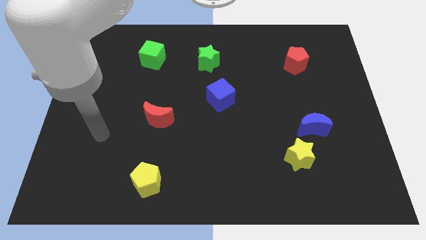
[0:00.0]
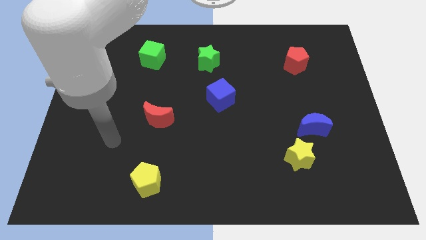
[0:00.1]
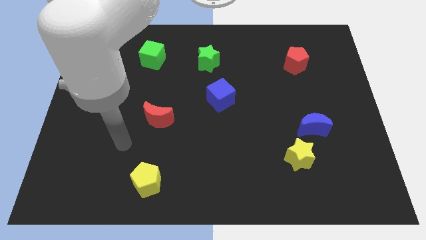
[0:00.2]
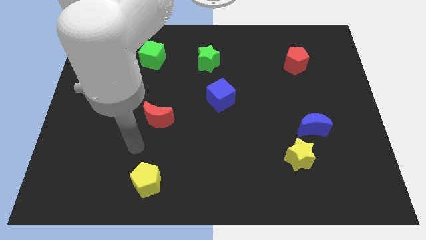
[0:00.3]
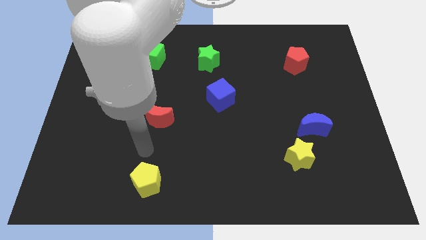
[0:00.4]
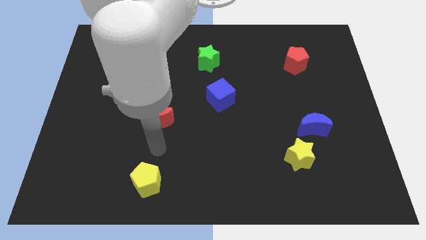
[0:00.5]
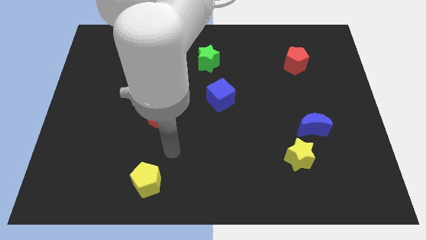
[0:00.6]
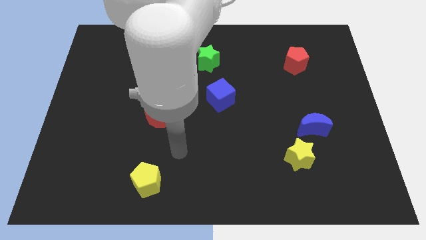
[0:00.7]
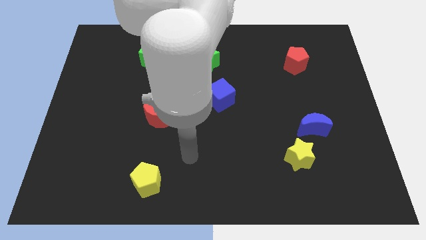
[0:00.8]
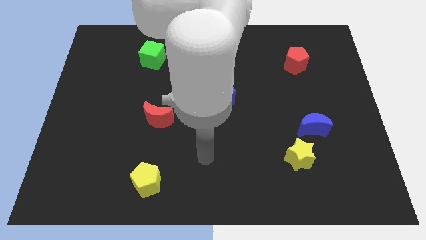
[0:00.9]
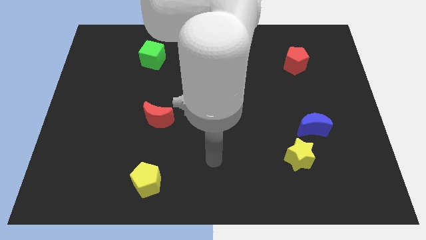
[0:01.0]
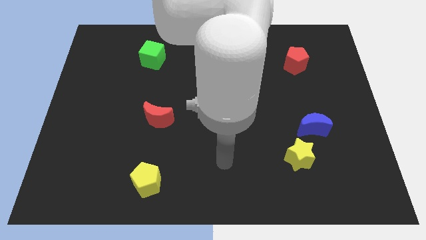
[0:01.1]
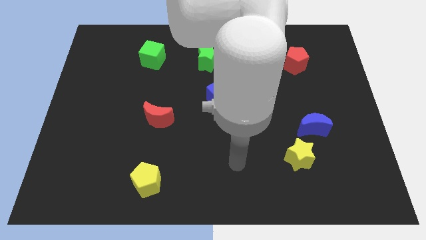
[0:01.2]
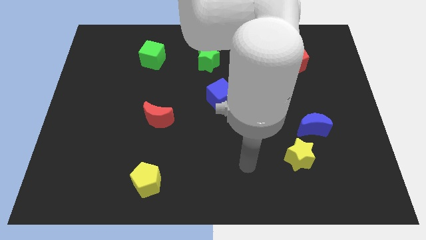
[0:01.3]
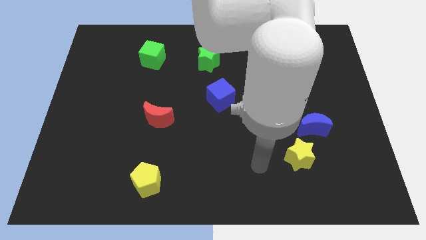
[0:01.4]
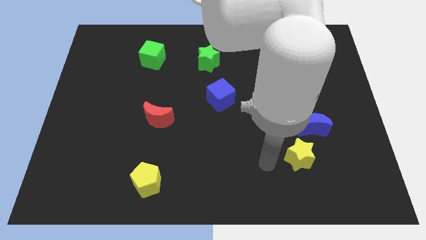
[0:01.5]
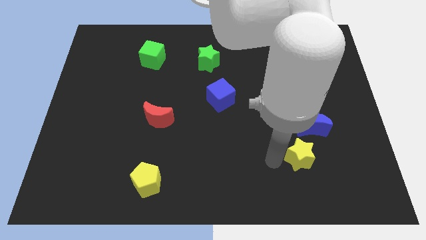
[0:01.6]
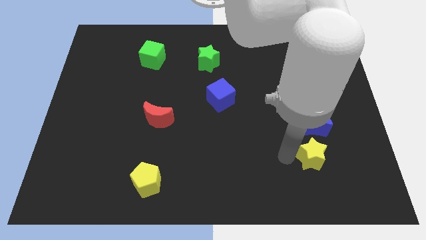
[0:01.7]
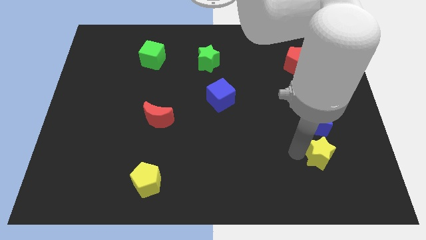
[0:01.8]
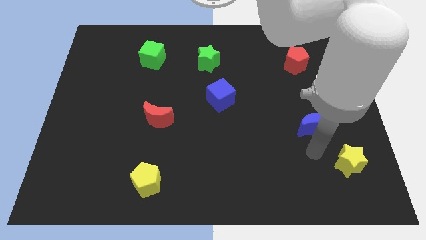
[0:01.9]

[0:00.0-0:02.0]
move the blue moon away from the yellow star

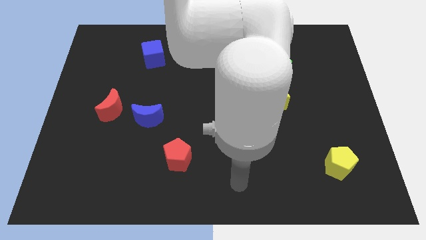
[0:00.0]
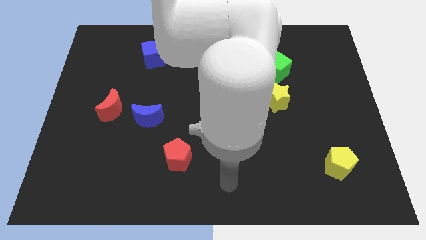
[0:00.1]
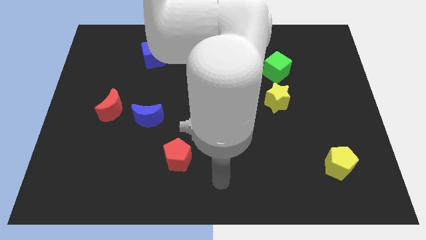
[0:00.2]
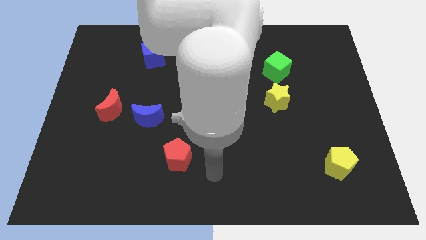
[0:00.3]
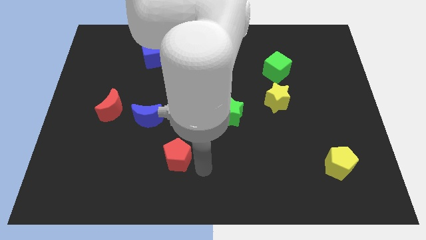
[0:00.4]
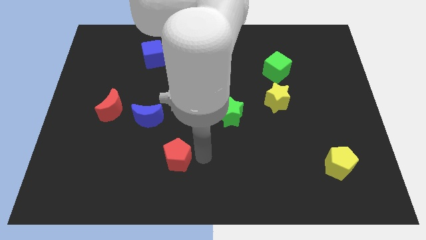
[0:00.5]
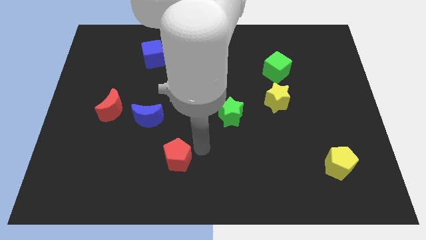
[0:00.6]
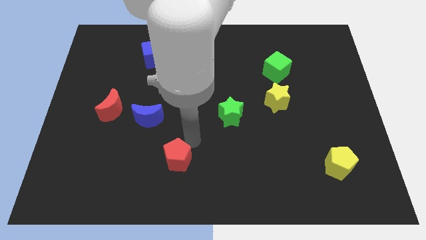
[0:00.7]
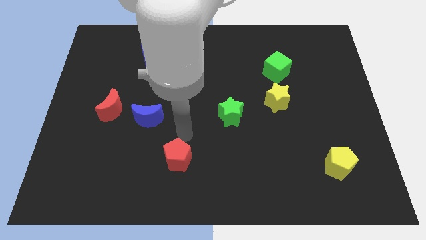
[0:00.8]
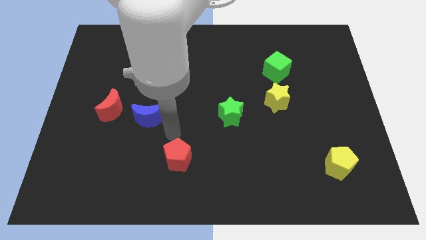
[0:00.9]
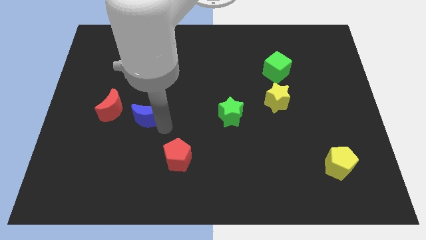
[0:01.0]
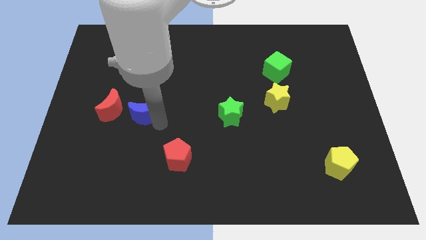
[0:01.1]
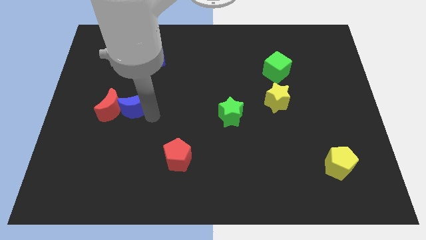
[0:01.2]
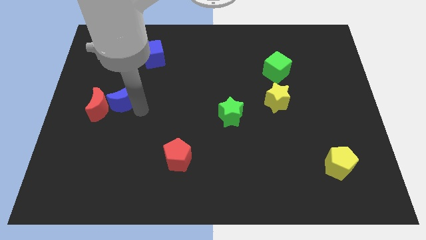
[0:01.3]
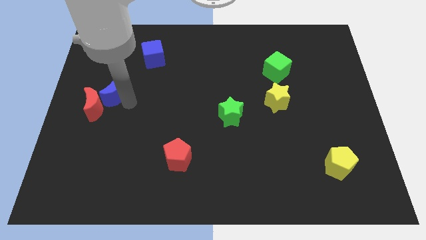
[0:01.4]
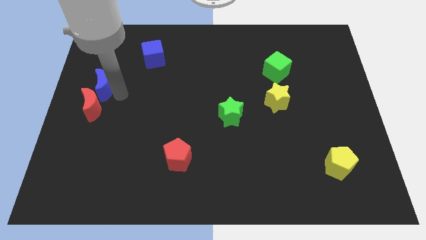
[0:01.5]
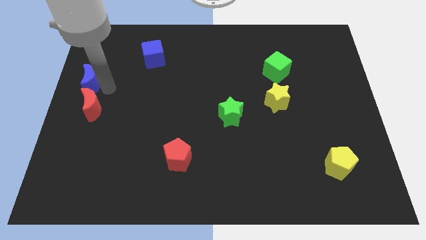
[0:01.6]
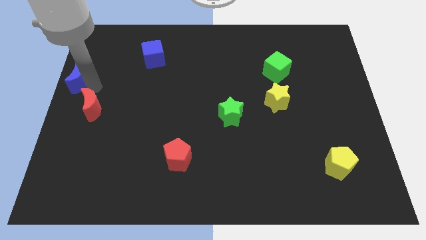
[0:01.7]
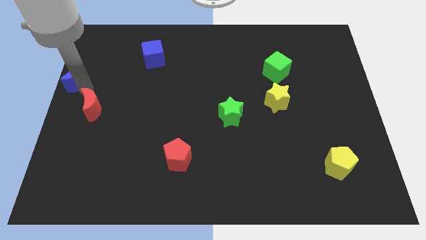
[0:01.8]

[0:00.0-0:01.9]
separate the red moon from the blue moon

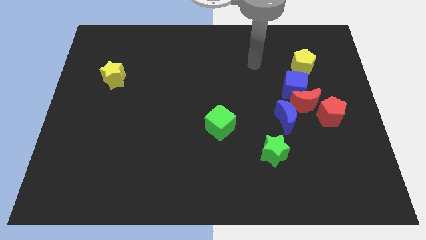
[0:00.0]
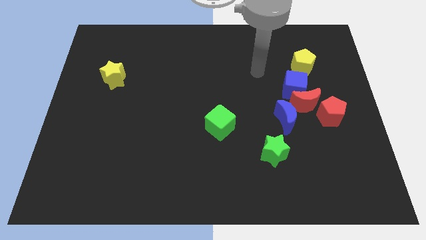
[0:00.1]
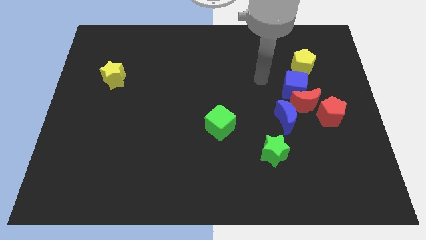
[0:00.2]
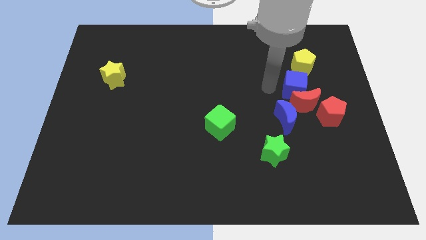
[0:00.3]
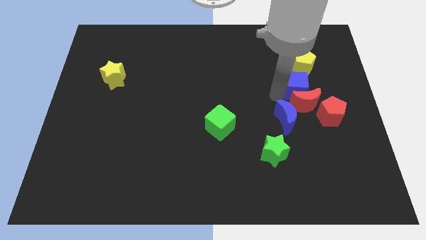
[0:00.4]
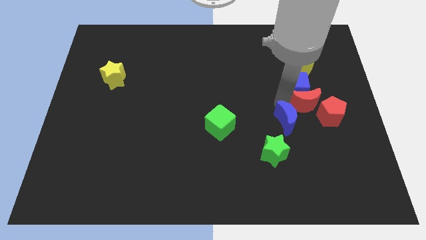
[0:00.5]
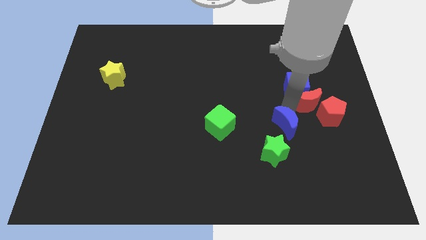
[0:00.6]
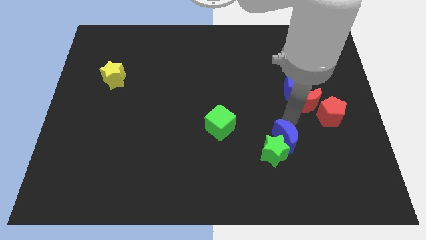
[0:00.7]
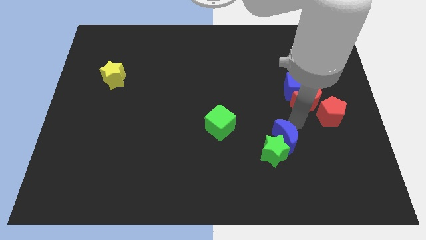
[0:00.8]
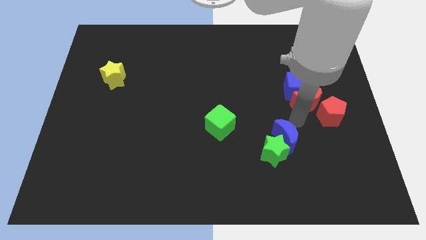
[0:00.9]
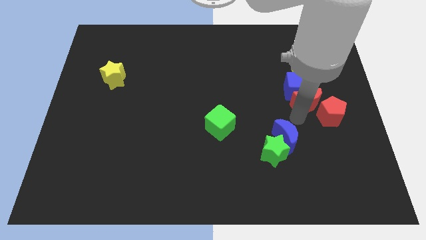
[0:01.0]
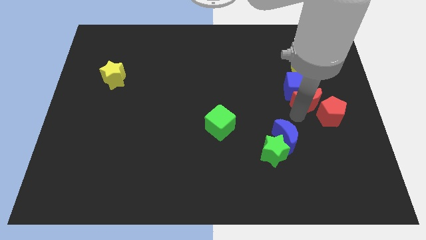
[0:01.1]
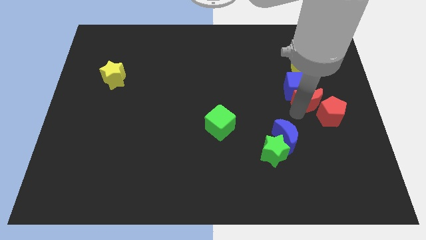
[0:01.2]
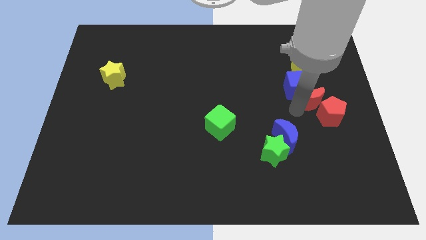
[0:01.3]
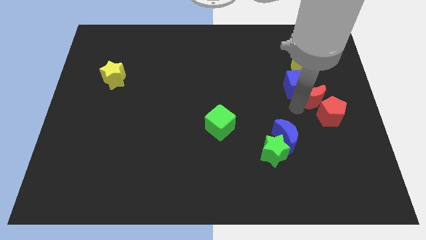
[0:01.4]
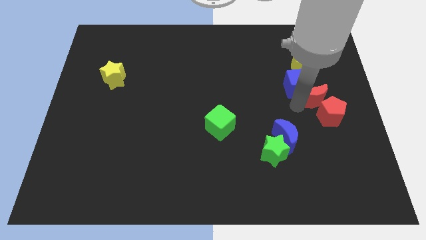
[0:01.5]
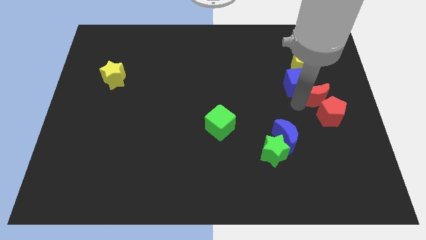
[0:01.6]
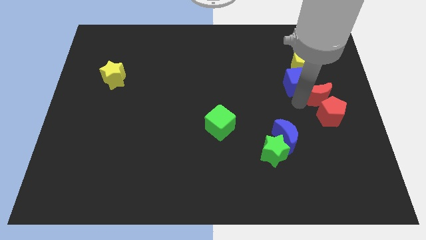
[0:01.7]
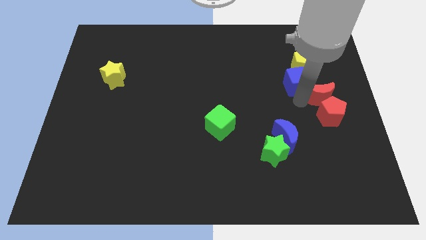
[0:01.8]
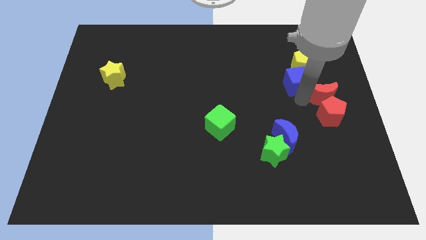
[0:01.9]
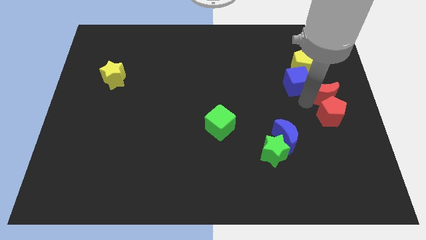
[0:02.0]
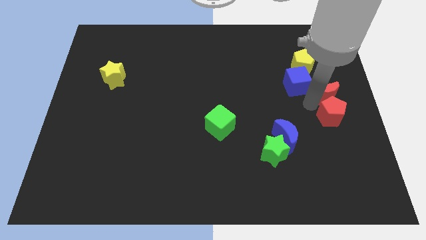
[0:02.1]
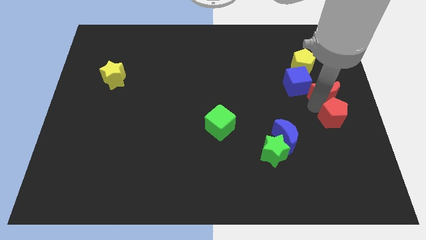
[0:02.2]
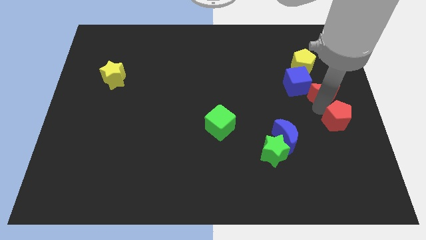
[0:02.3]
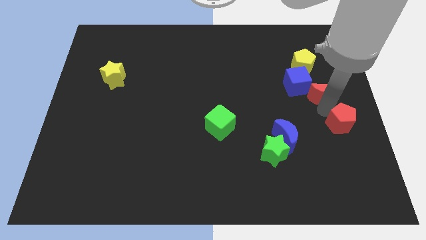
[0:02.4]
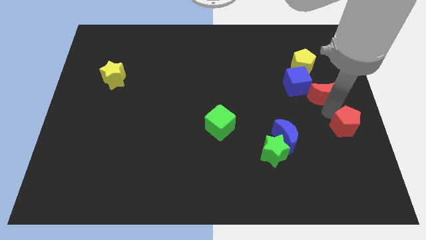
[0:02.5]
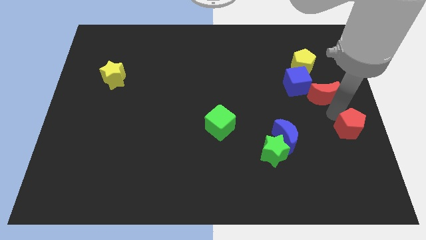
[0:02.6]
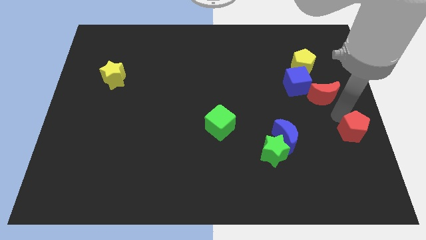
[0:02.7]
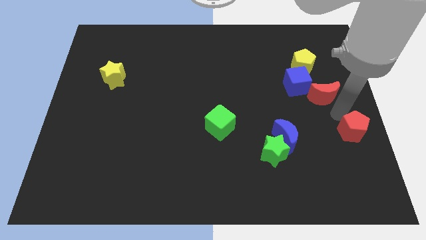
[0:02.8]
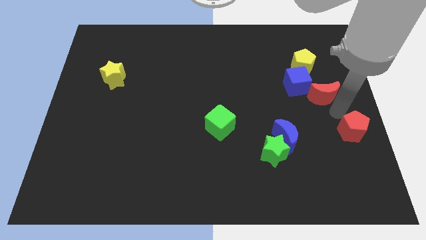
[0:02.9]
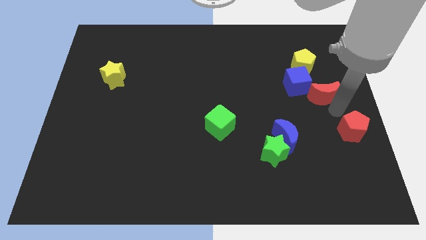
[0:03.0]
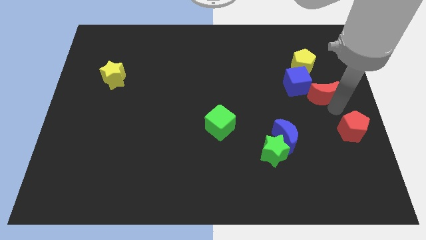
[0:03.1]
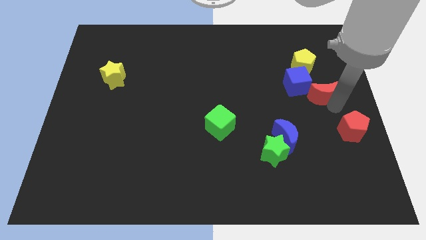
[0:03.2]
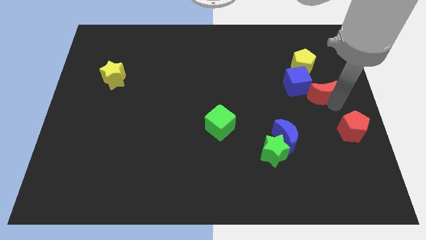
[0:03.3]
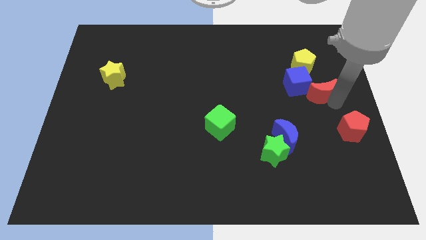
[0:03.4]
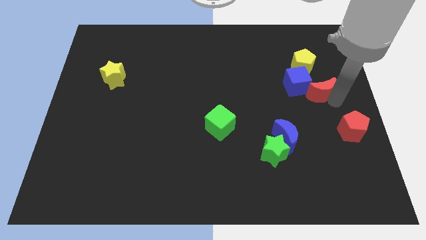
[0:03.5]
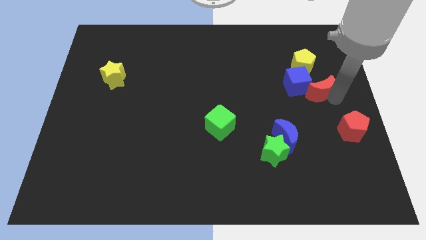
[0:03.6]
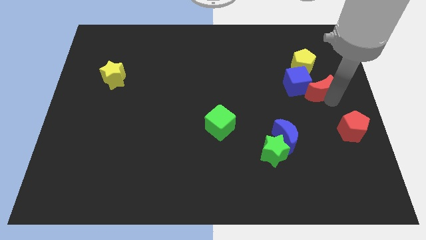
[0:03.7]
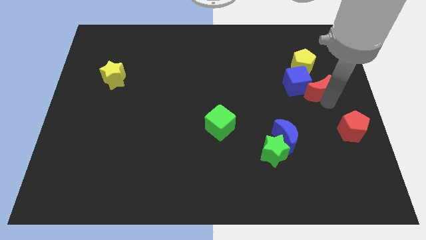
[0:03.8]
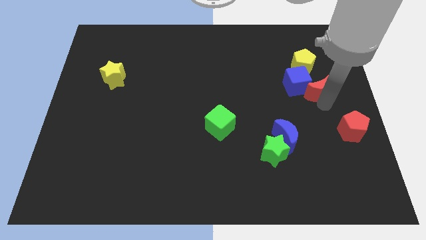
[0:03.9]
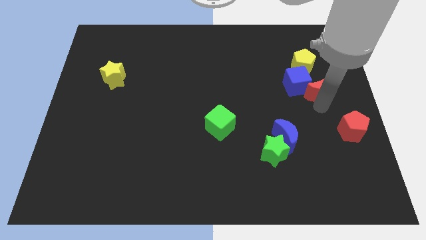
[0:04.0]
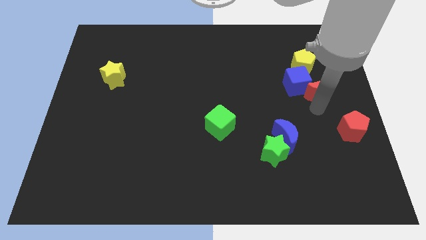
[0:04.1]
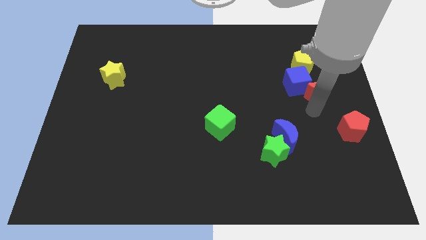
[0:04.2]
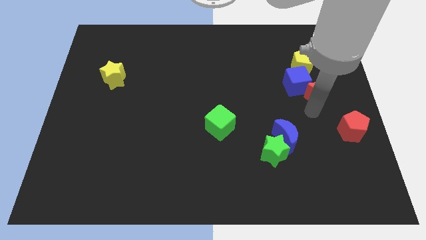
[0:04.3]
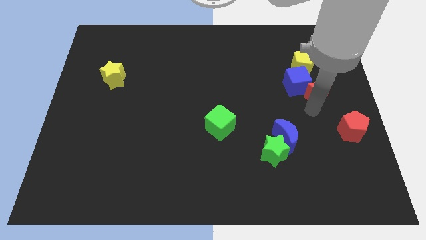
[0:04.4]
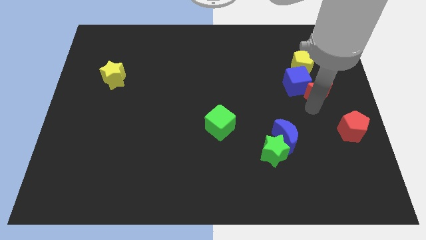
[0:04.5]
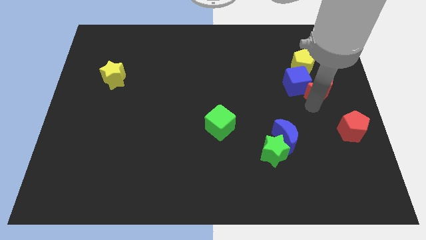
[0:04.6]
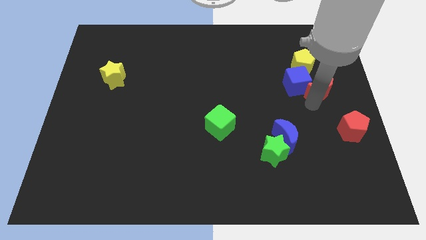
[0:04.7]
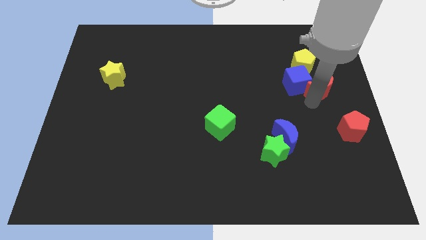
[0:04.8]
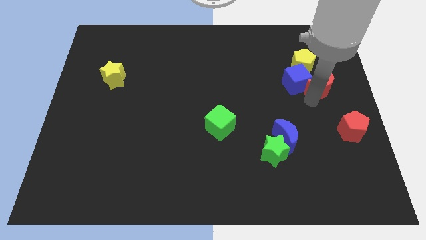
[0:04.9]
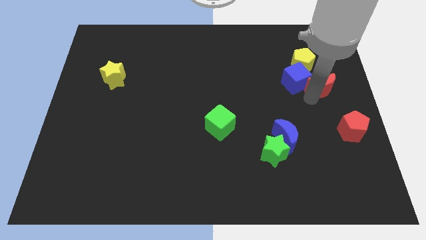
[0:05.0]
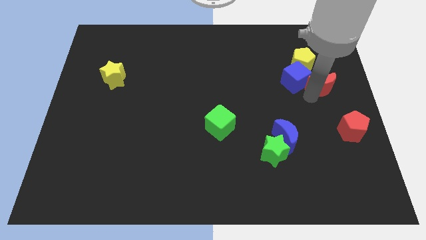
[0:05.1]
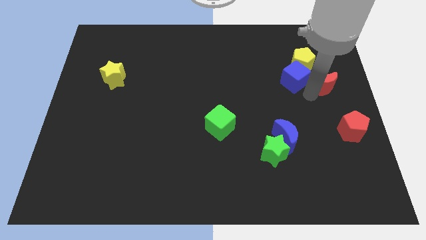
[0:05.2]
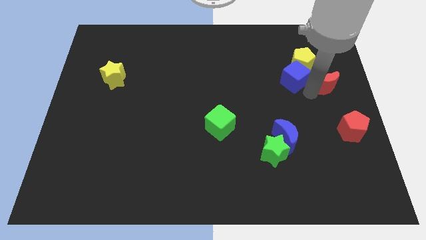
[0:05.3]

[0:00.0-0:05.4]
separate the red moon from the clump
